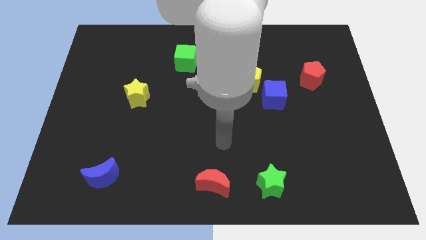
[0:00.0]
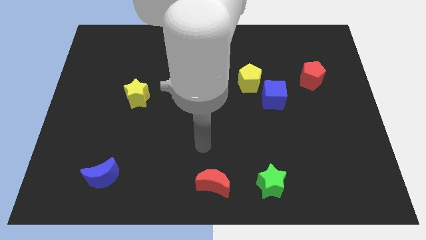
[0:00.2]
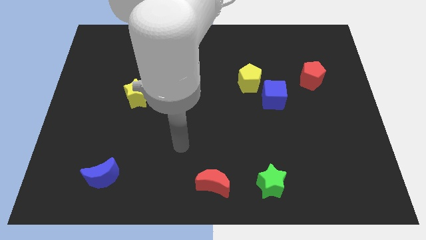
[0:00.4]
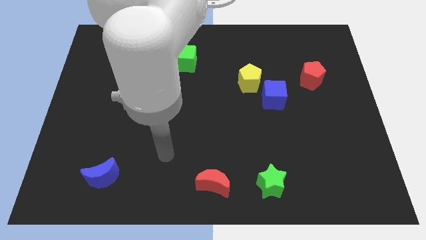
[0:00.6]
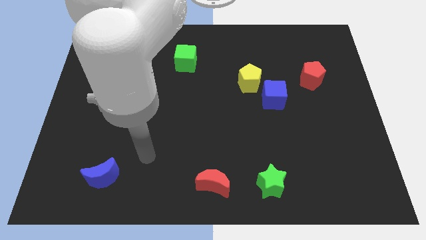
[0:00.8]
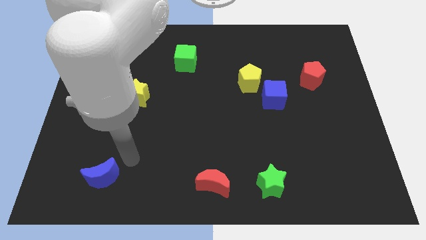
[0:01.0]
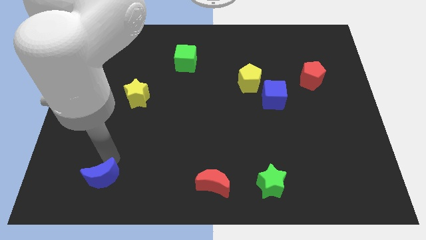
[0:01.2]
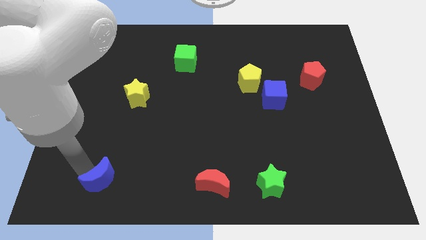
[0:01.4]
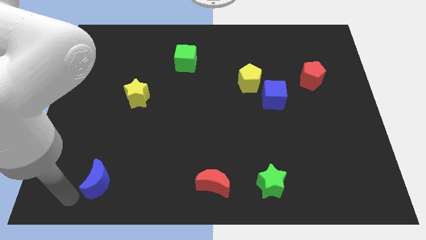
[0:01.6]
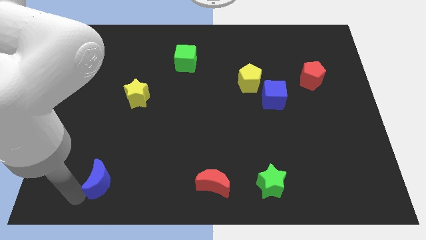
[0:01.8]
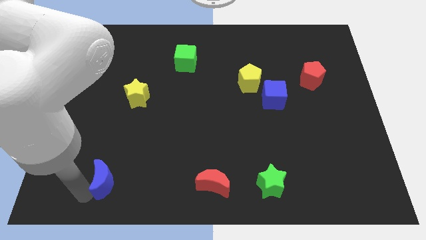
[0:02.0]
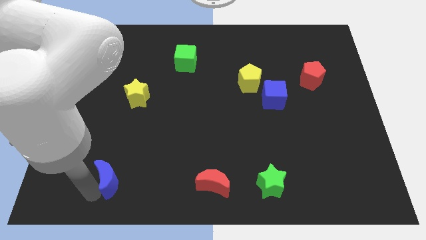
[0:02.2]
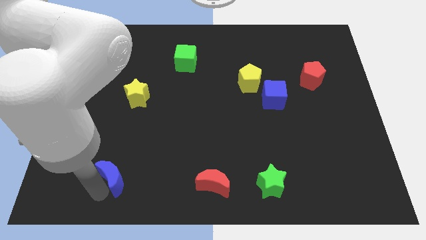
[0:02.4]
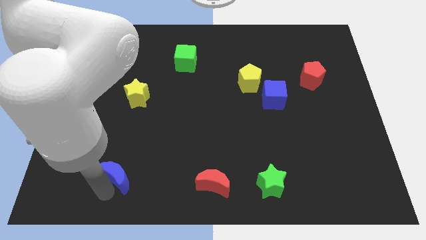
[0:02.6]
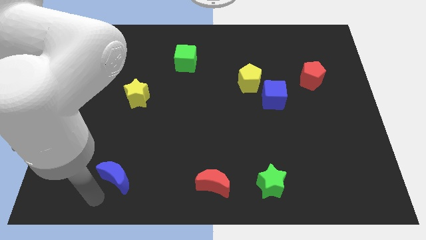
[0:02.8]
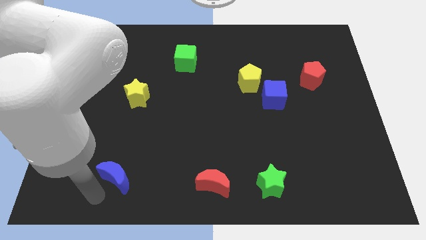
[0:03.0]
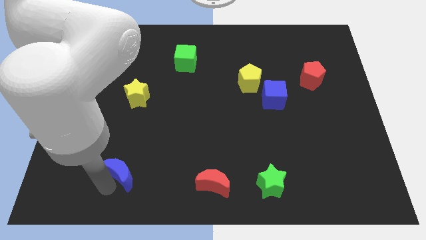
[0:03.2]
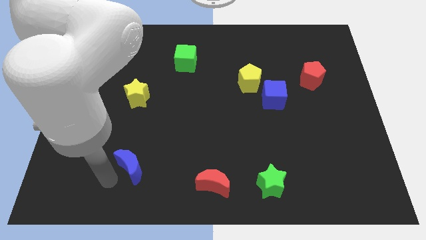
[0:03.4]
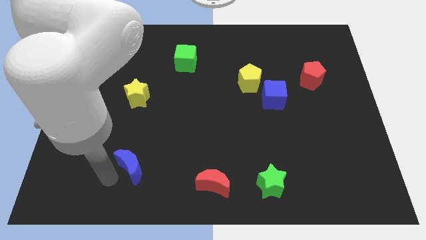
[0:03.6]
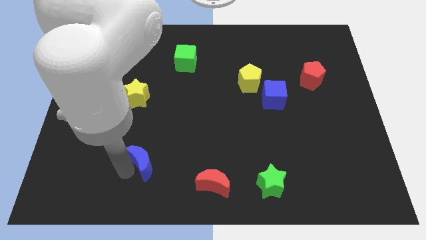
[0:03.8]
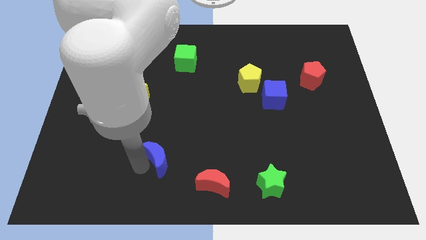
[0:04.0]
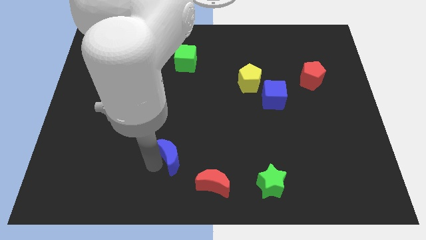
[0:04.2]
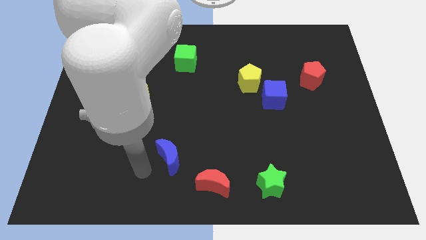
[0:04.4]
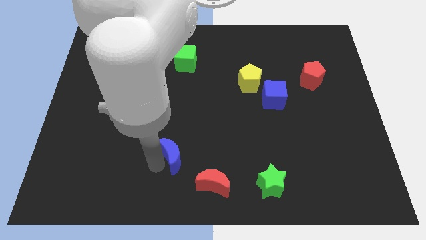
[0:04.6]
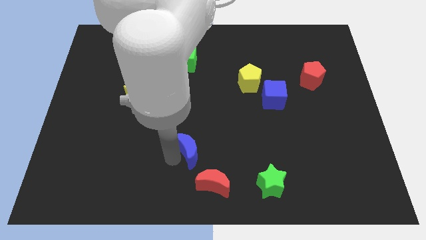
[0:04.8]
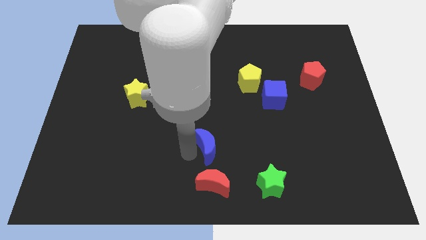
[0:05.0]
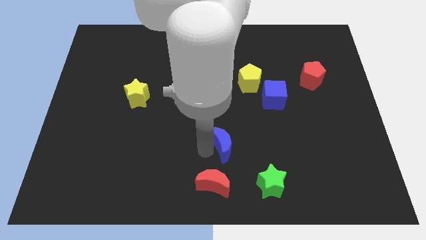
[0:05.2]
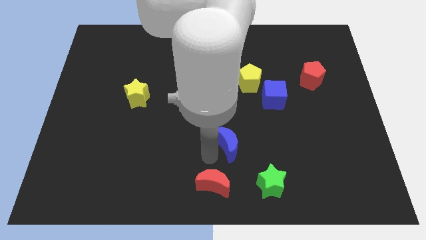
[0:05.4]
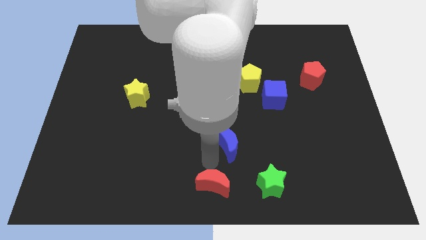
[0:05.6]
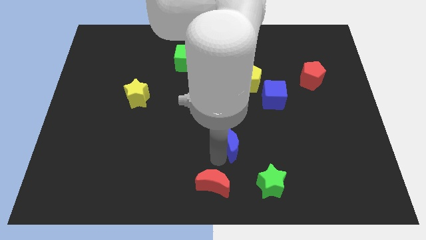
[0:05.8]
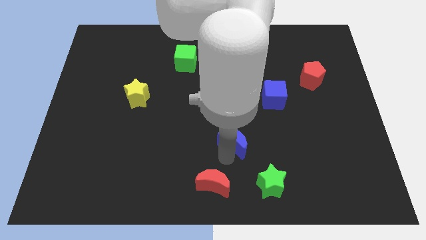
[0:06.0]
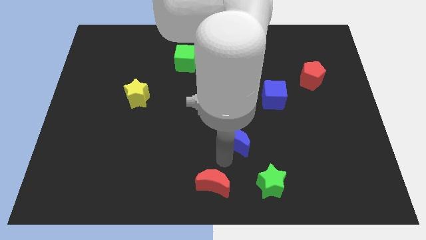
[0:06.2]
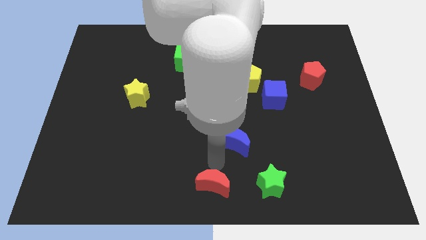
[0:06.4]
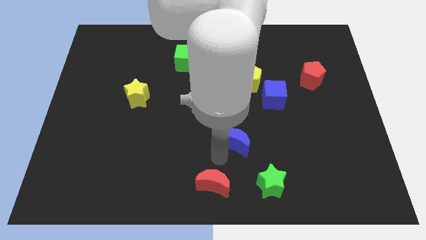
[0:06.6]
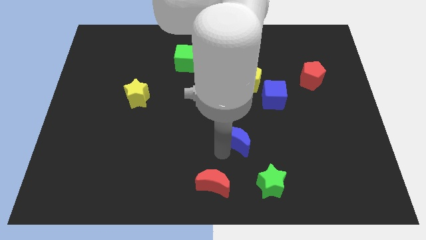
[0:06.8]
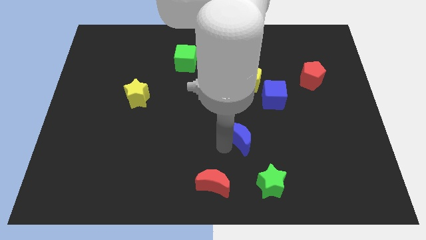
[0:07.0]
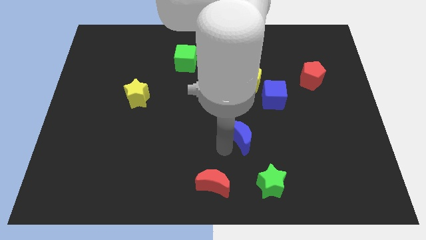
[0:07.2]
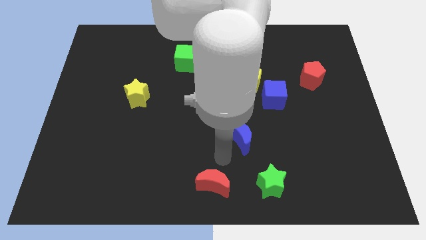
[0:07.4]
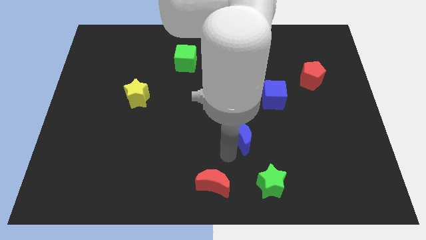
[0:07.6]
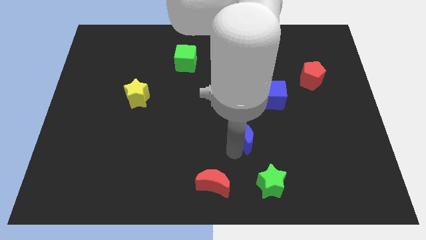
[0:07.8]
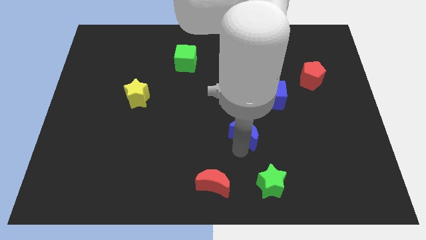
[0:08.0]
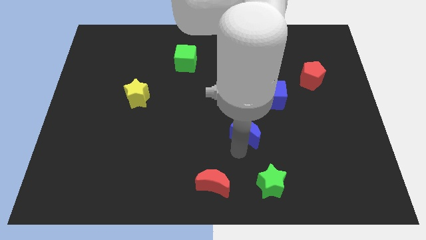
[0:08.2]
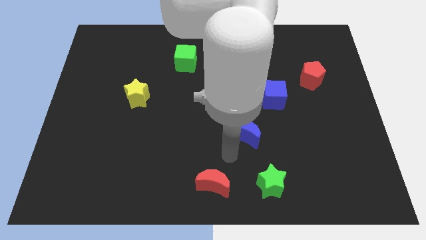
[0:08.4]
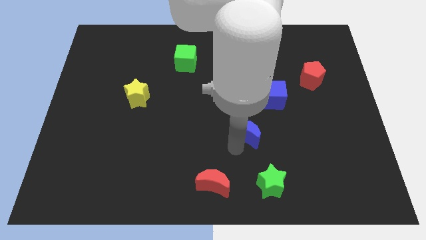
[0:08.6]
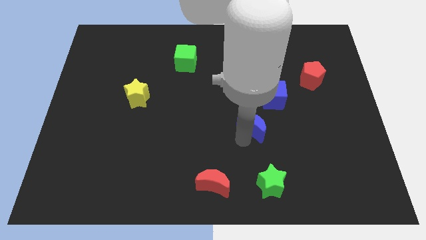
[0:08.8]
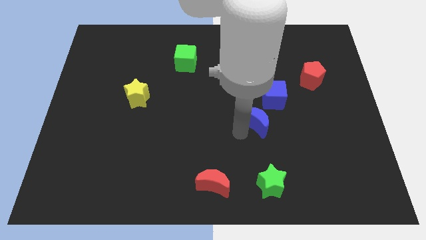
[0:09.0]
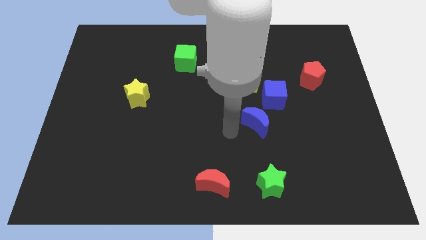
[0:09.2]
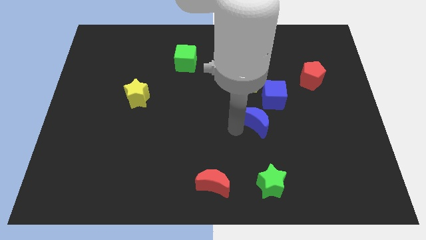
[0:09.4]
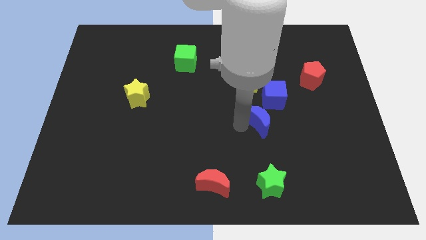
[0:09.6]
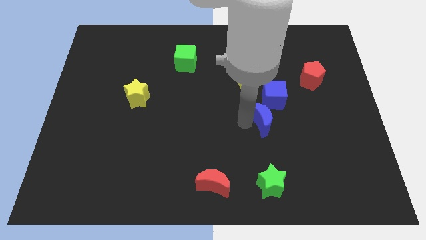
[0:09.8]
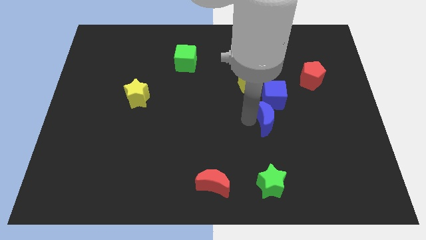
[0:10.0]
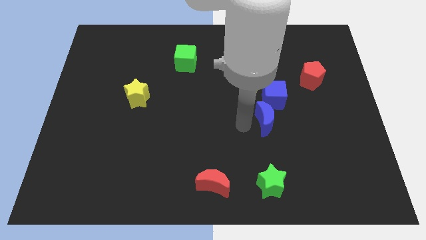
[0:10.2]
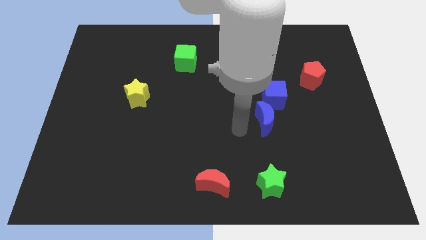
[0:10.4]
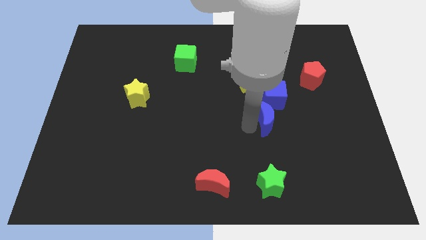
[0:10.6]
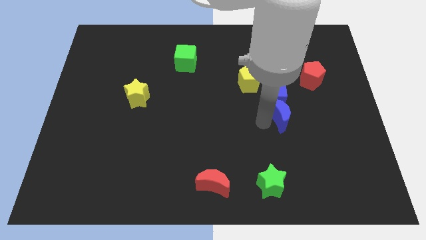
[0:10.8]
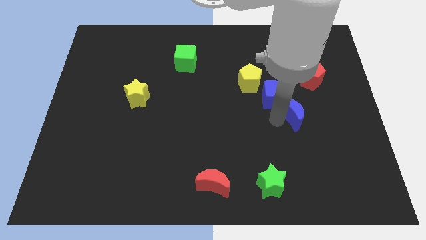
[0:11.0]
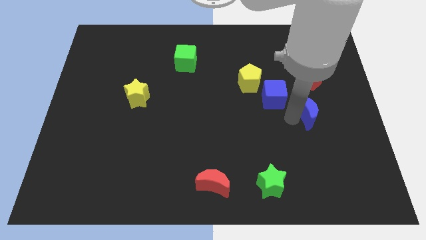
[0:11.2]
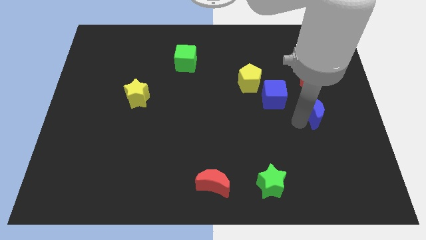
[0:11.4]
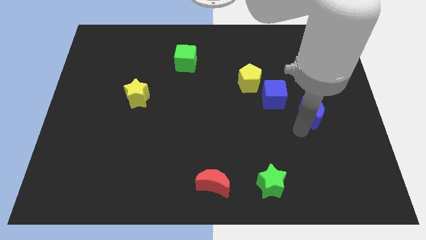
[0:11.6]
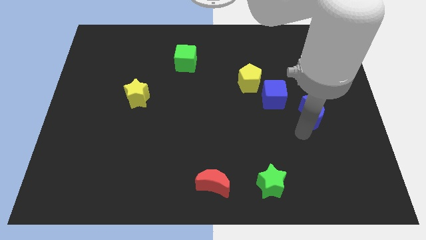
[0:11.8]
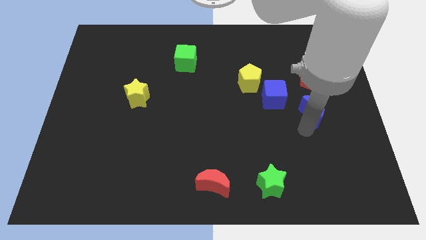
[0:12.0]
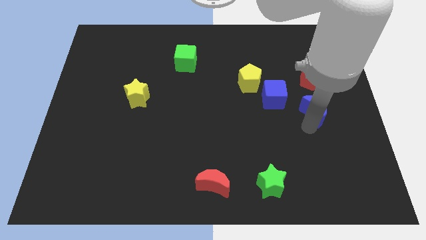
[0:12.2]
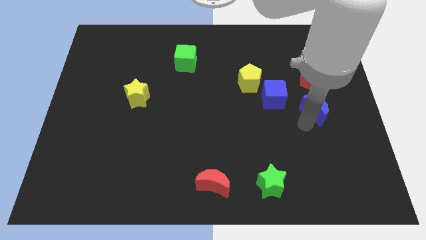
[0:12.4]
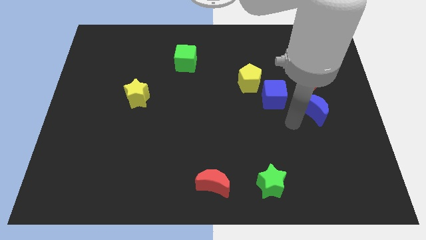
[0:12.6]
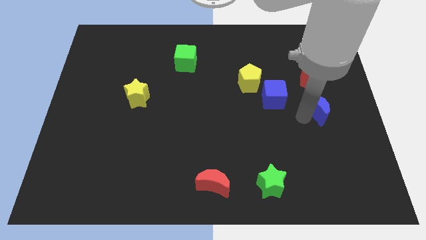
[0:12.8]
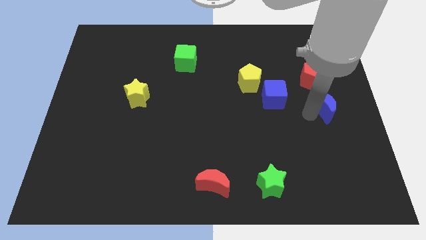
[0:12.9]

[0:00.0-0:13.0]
push the blue moon to the center right
